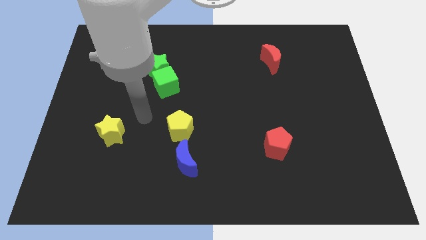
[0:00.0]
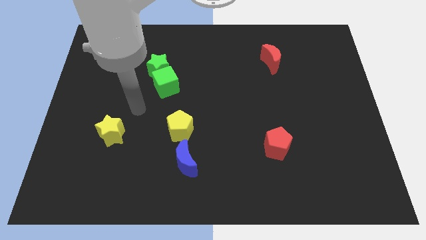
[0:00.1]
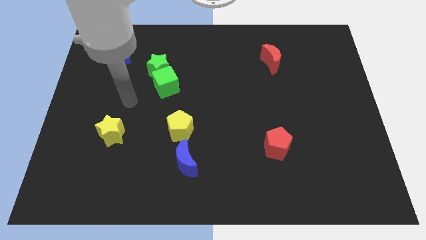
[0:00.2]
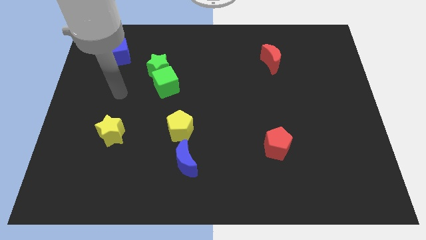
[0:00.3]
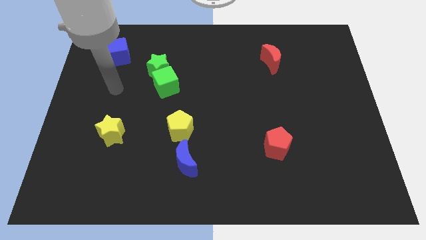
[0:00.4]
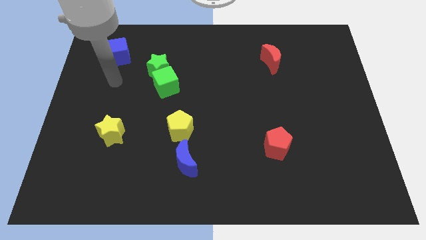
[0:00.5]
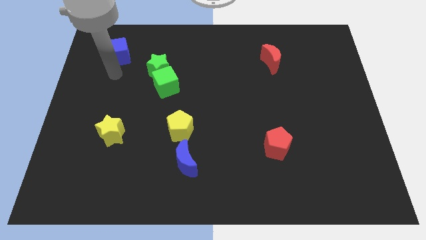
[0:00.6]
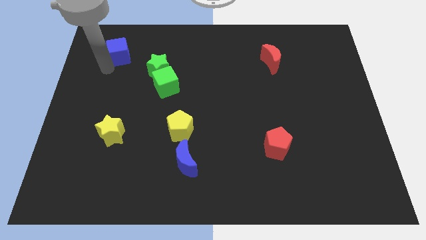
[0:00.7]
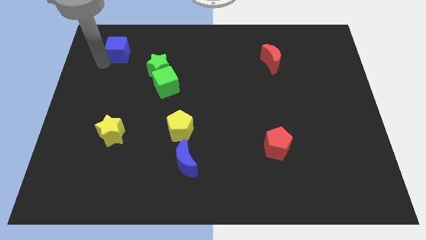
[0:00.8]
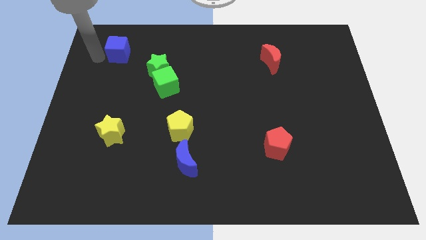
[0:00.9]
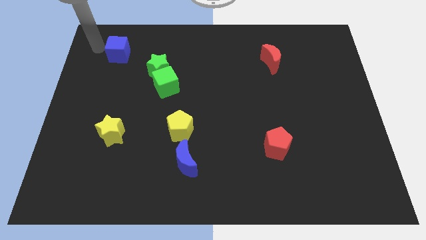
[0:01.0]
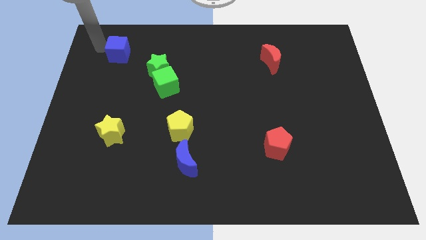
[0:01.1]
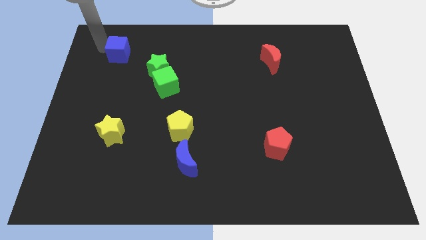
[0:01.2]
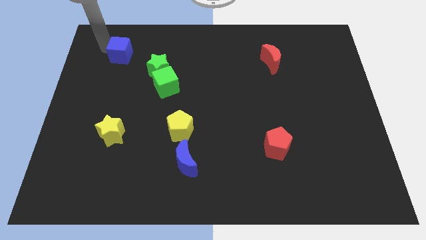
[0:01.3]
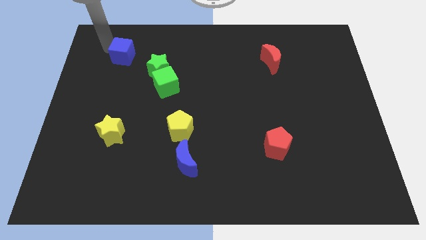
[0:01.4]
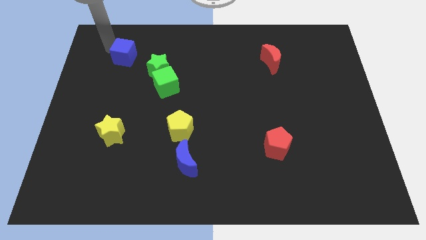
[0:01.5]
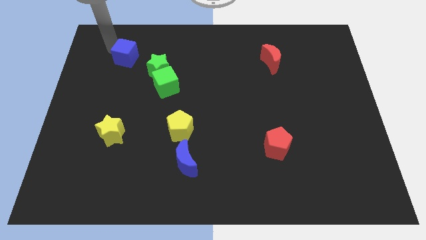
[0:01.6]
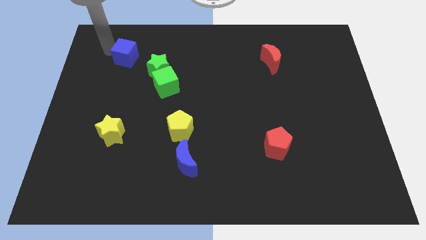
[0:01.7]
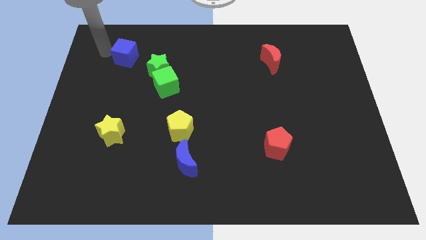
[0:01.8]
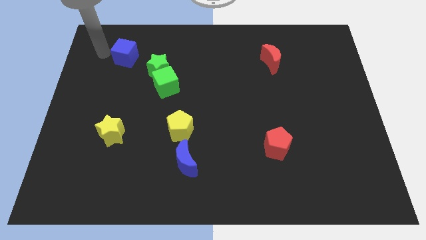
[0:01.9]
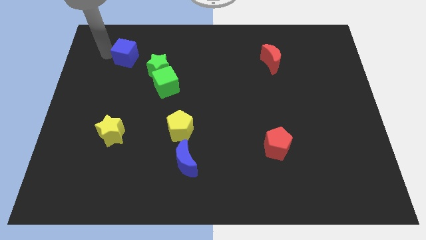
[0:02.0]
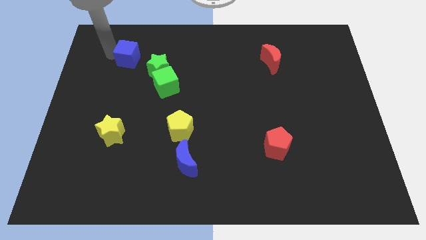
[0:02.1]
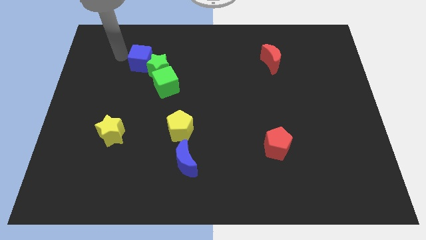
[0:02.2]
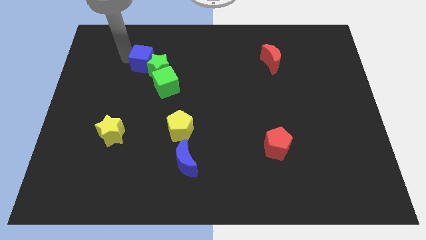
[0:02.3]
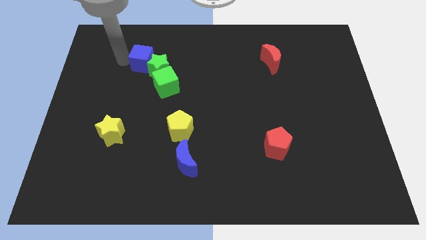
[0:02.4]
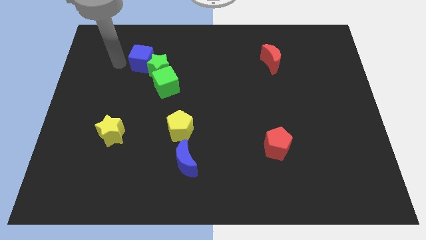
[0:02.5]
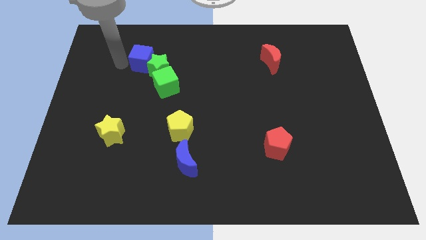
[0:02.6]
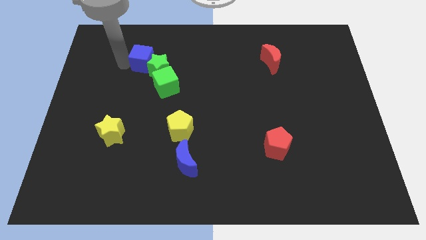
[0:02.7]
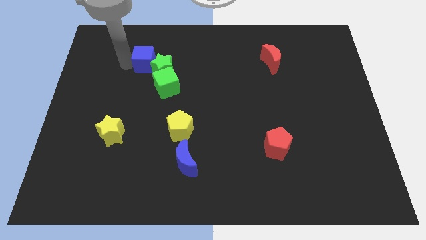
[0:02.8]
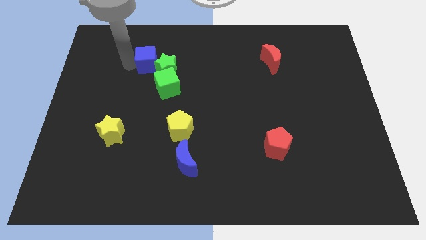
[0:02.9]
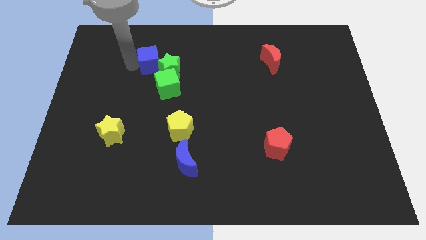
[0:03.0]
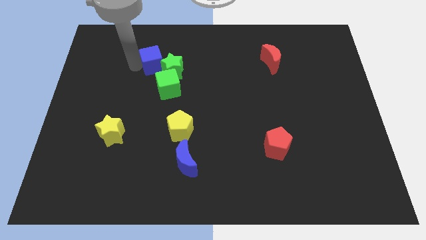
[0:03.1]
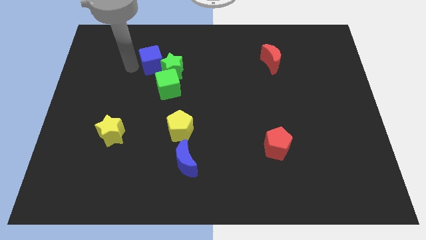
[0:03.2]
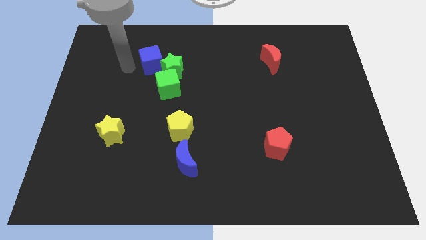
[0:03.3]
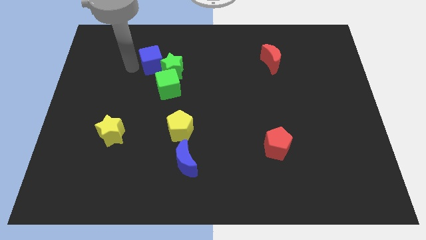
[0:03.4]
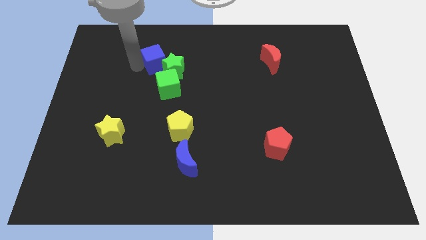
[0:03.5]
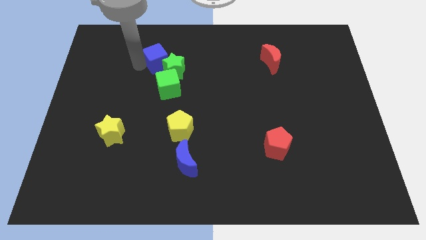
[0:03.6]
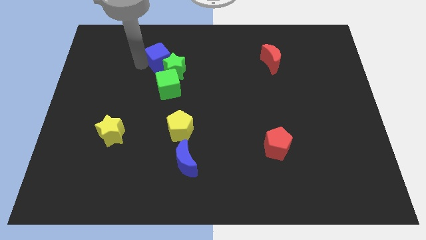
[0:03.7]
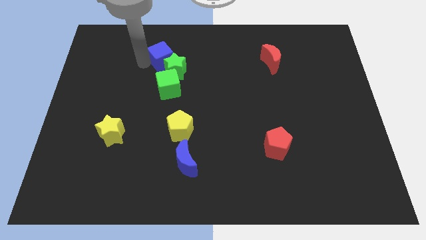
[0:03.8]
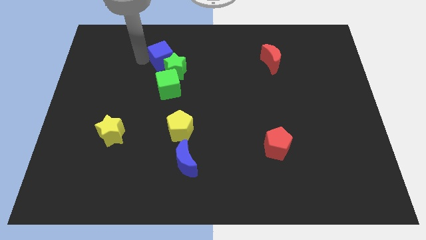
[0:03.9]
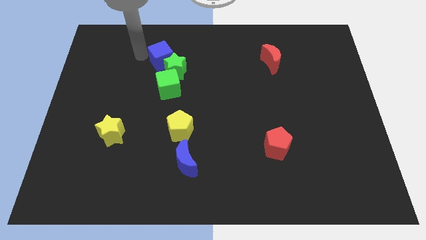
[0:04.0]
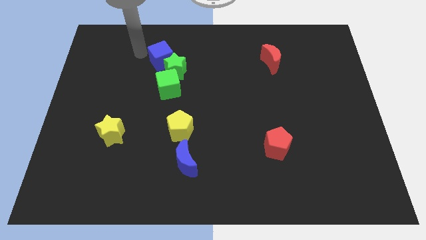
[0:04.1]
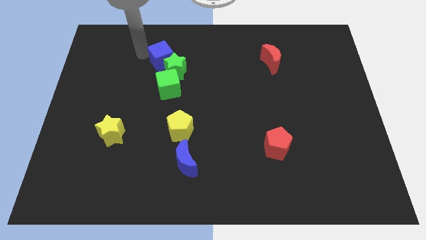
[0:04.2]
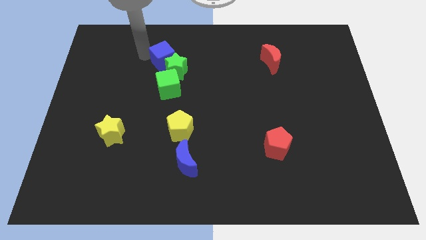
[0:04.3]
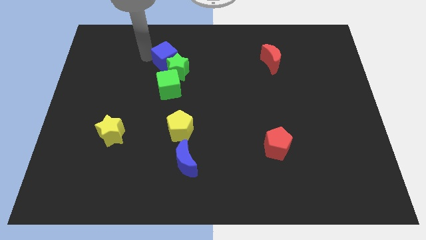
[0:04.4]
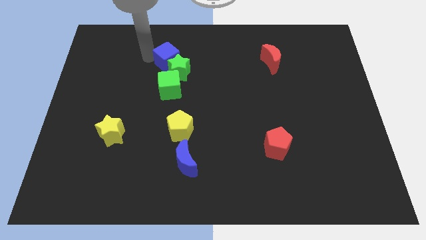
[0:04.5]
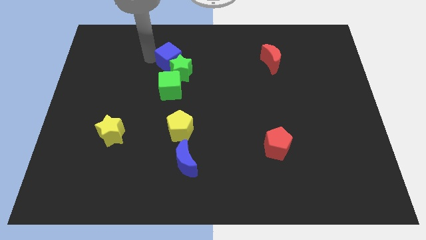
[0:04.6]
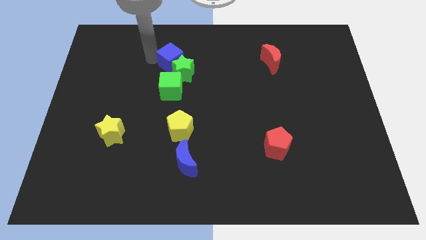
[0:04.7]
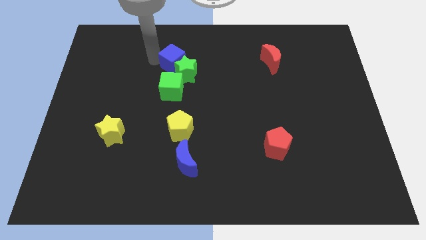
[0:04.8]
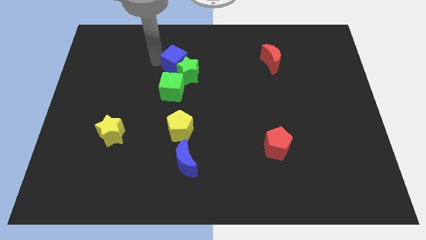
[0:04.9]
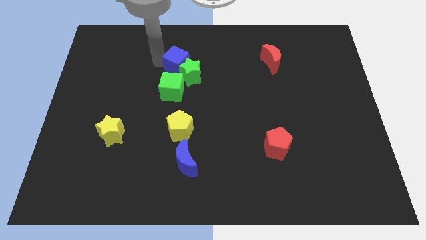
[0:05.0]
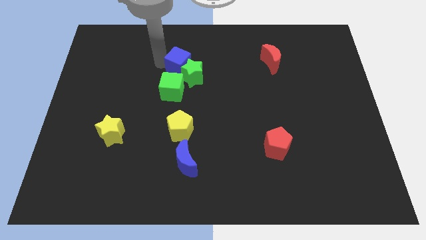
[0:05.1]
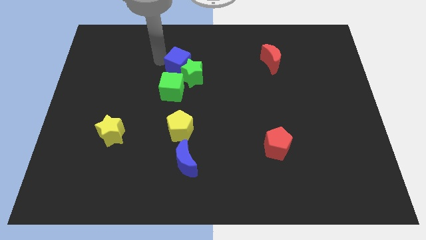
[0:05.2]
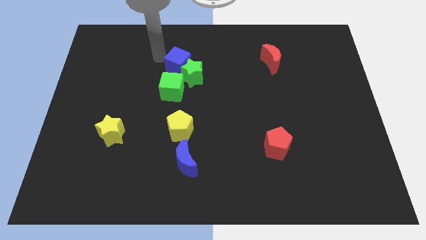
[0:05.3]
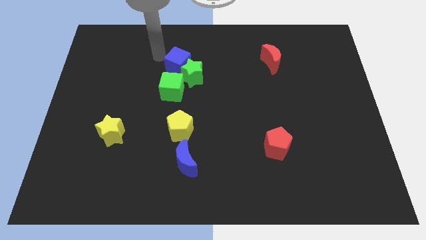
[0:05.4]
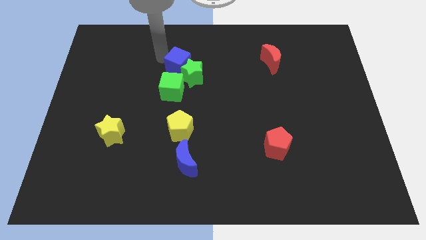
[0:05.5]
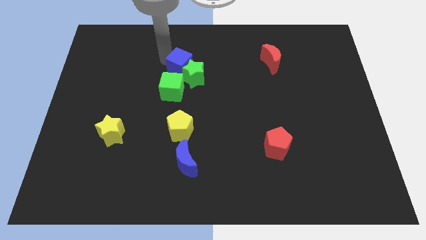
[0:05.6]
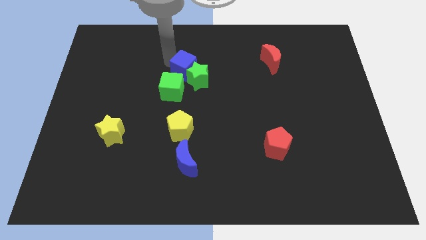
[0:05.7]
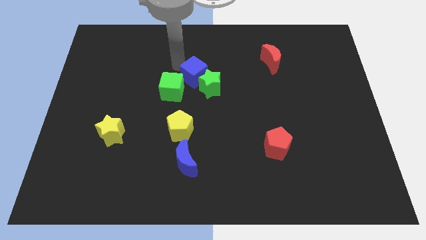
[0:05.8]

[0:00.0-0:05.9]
slide the blue cube just right of the green cube

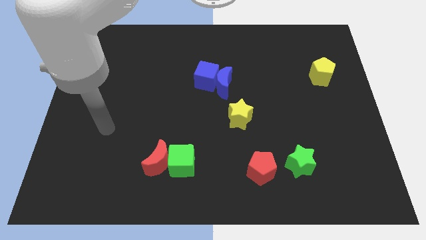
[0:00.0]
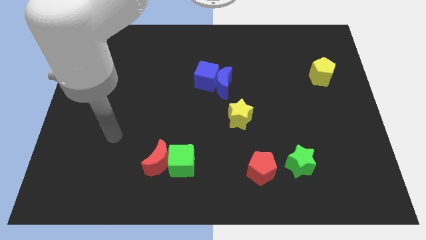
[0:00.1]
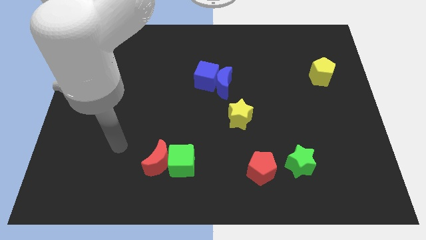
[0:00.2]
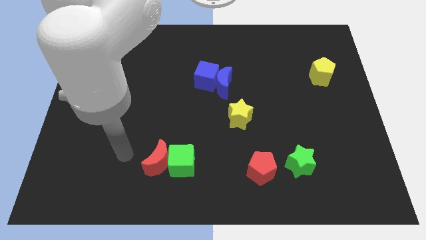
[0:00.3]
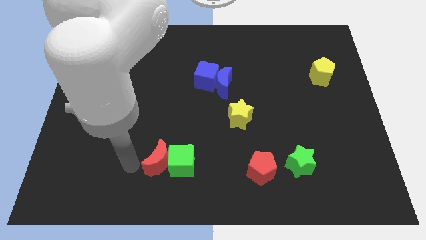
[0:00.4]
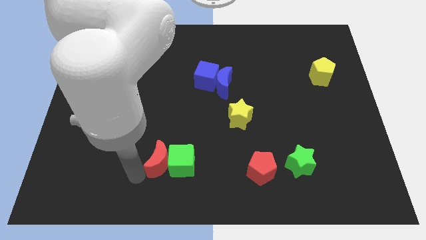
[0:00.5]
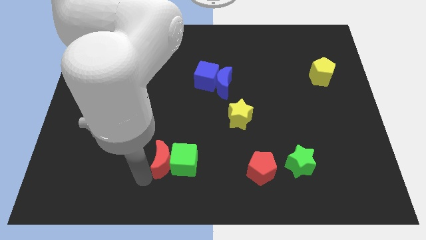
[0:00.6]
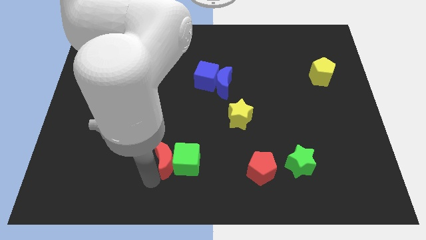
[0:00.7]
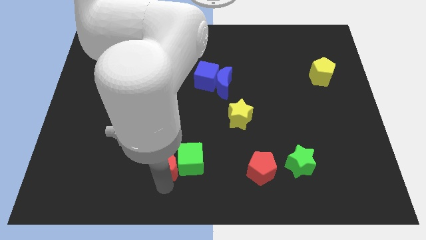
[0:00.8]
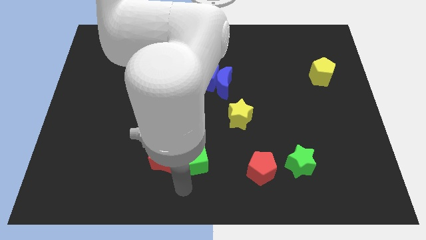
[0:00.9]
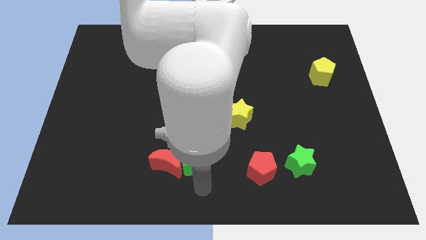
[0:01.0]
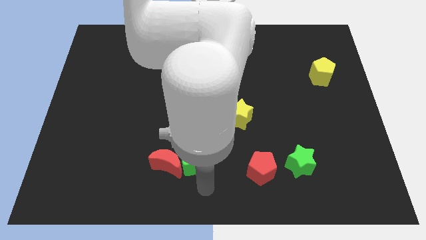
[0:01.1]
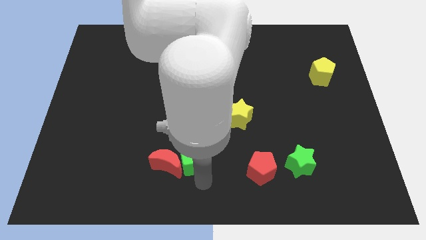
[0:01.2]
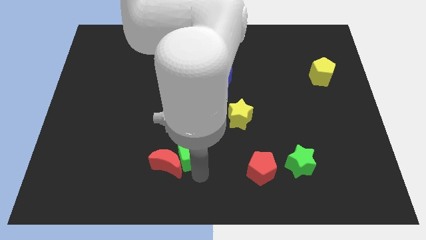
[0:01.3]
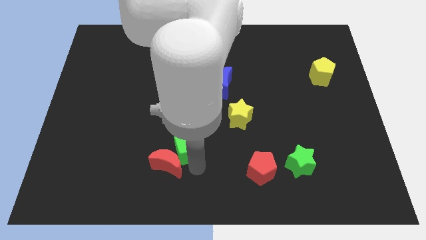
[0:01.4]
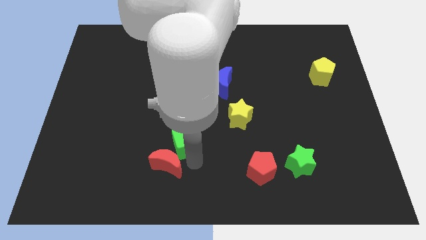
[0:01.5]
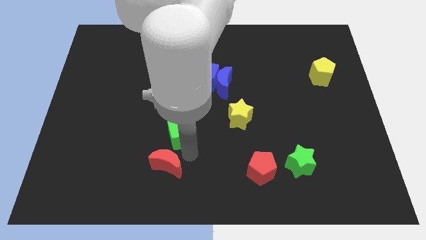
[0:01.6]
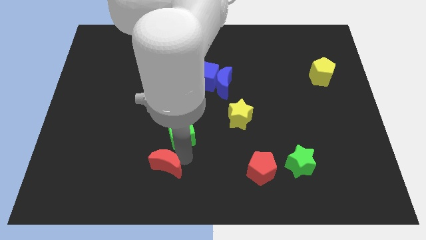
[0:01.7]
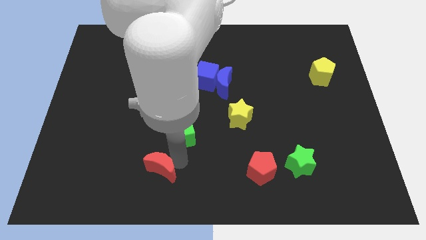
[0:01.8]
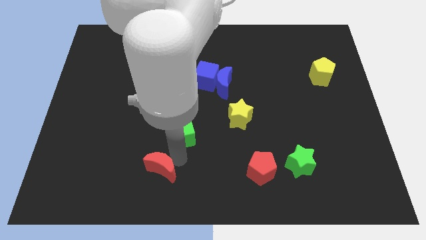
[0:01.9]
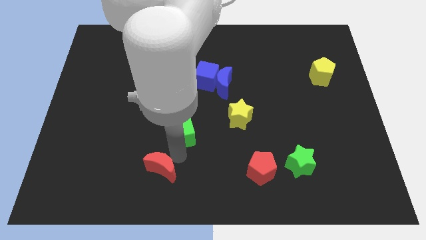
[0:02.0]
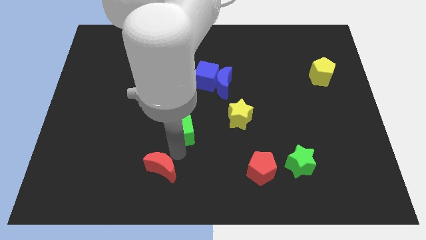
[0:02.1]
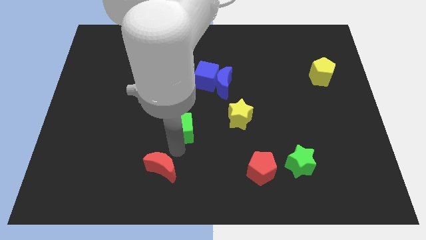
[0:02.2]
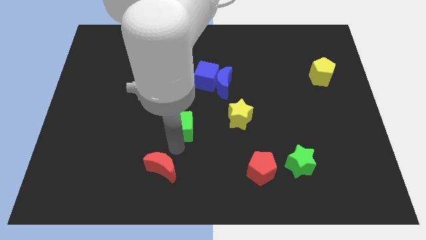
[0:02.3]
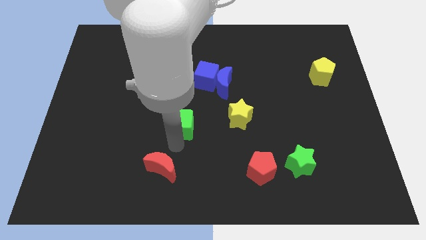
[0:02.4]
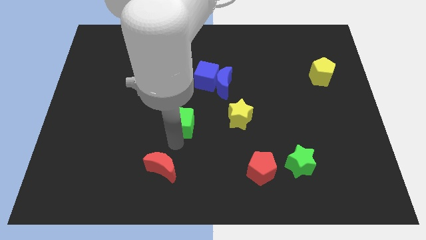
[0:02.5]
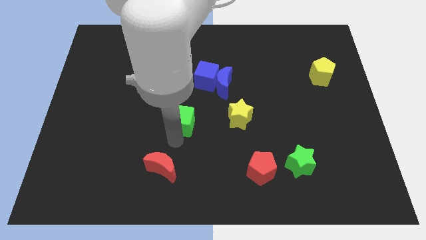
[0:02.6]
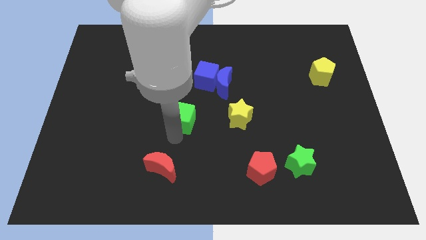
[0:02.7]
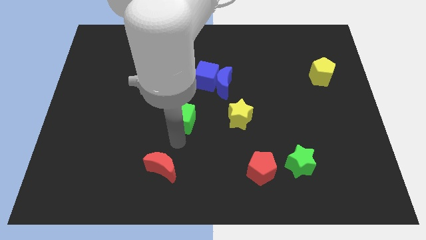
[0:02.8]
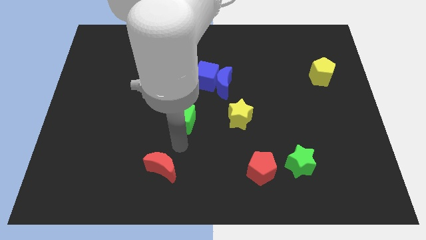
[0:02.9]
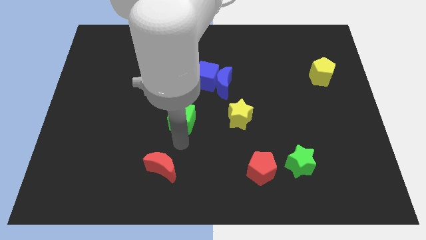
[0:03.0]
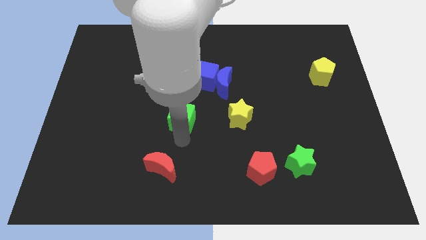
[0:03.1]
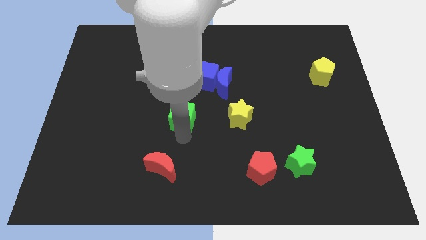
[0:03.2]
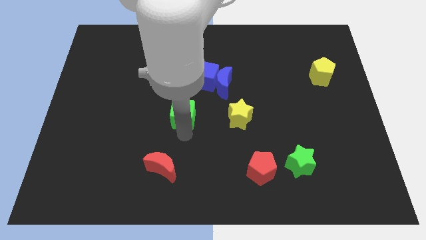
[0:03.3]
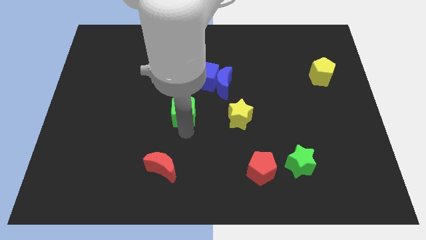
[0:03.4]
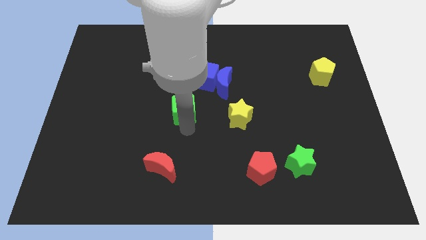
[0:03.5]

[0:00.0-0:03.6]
push the green cube to the bottom left of the blue cube
